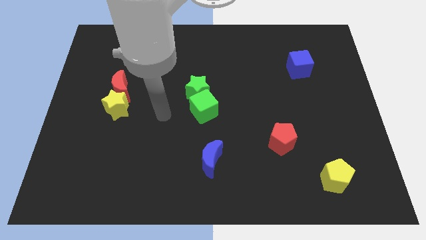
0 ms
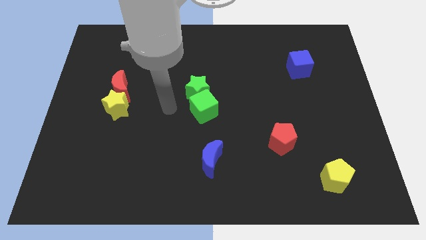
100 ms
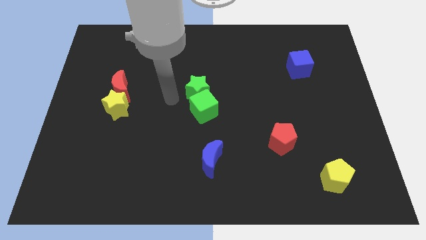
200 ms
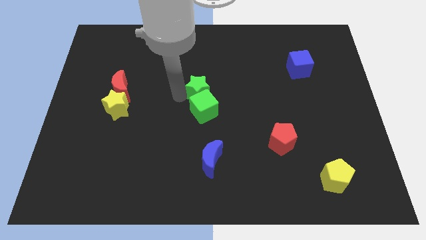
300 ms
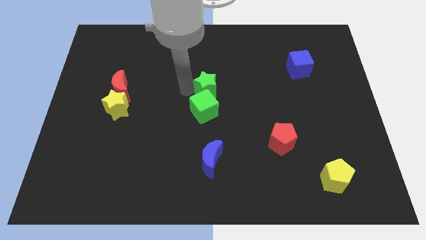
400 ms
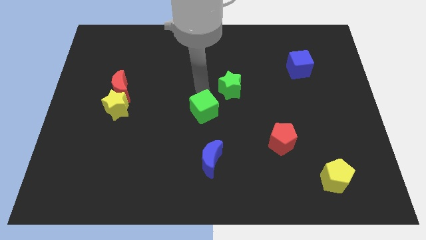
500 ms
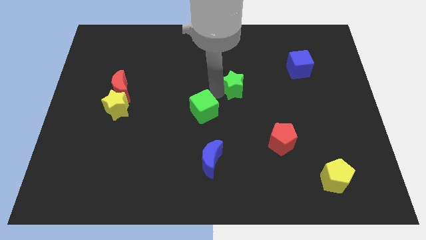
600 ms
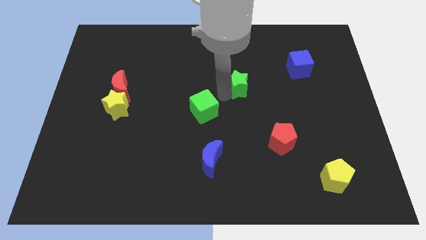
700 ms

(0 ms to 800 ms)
pull the green cube apart from the green star

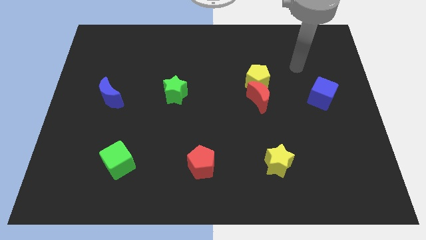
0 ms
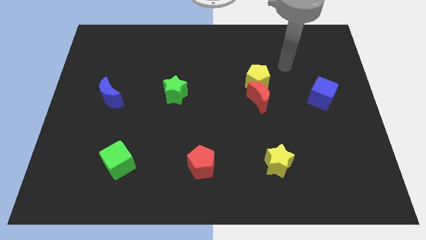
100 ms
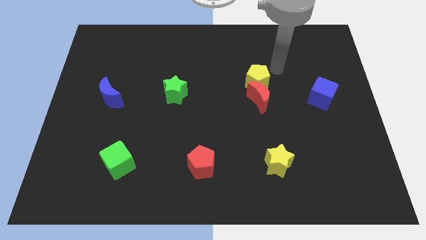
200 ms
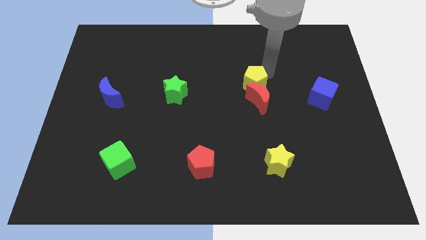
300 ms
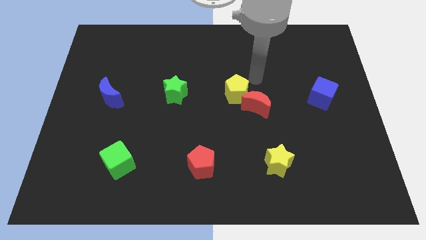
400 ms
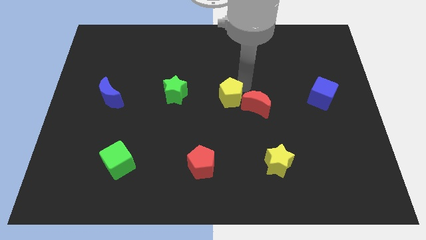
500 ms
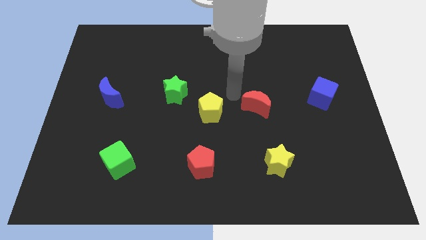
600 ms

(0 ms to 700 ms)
move the red moon away from the yellow pentagon

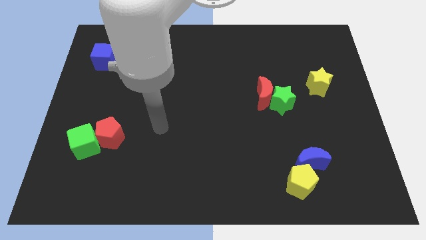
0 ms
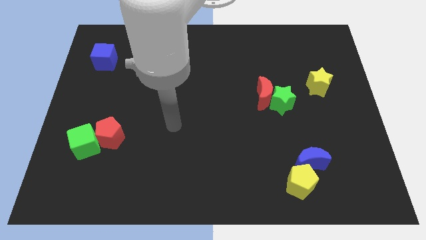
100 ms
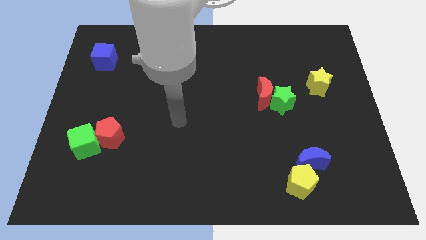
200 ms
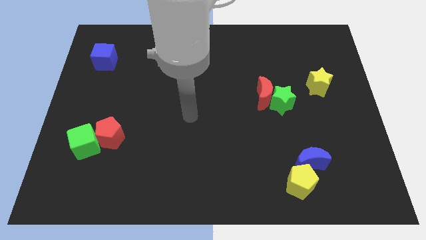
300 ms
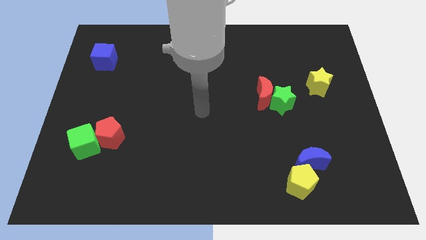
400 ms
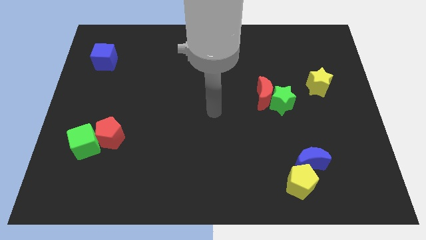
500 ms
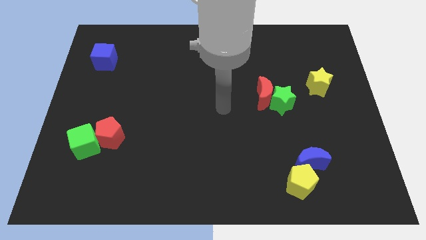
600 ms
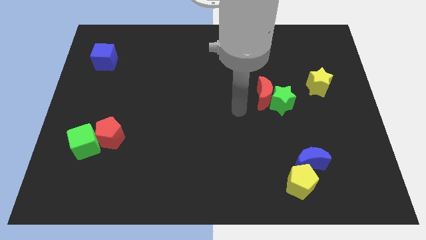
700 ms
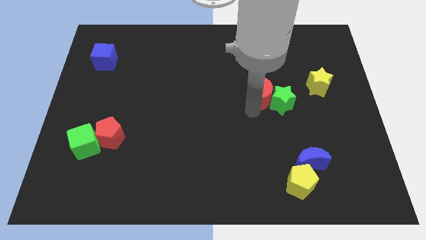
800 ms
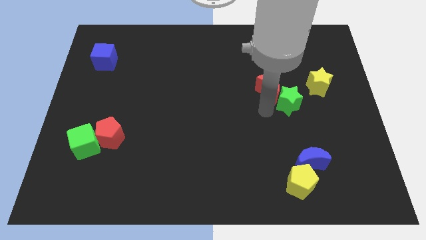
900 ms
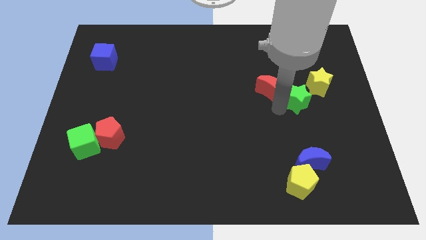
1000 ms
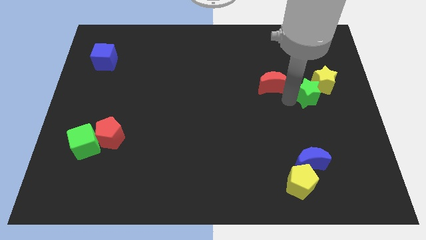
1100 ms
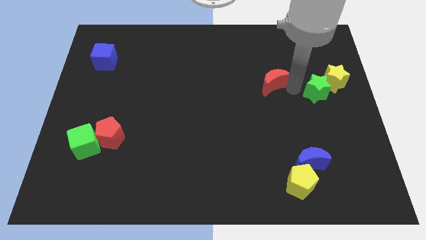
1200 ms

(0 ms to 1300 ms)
move the red moon away from the green star

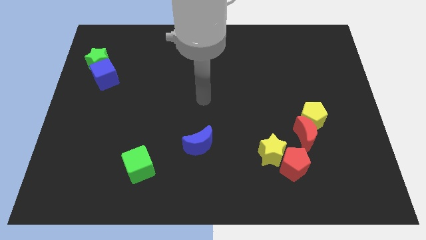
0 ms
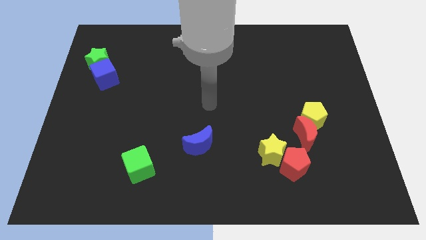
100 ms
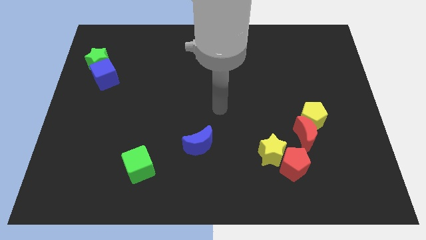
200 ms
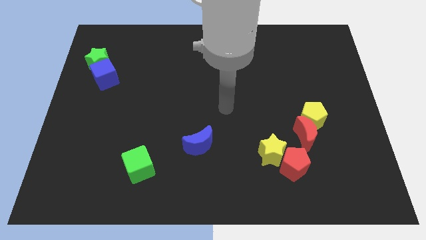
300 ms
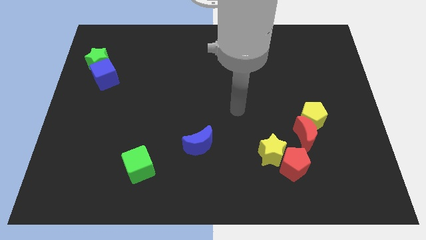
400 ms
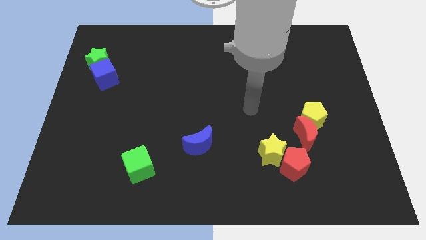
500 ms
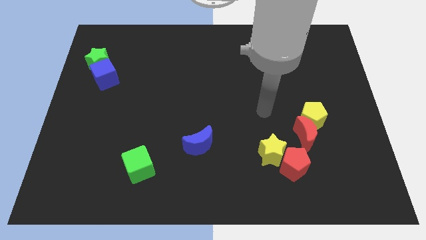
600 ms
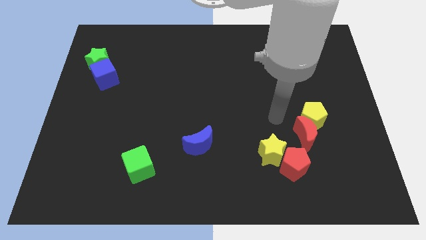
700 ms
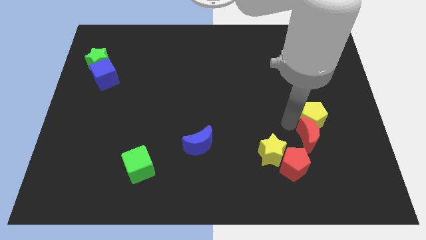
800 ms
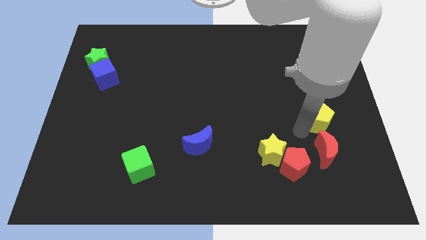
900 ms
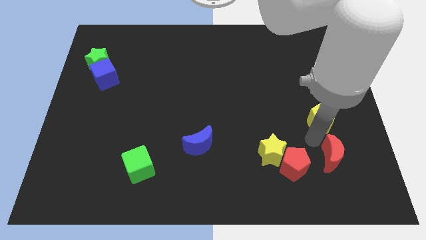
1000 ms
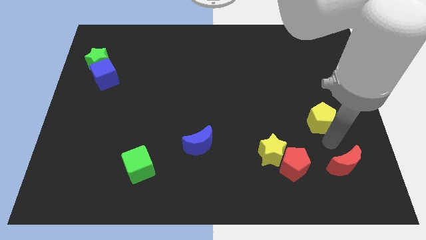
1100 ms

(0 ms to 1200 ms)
move the yellow pentagon away from the red moon

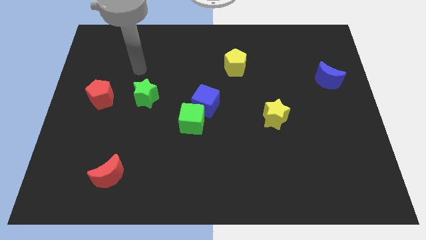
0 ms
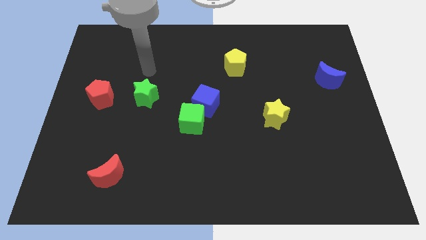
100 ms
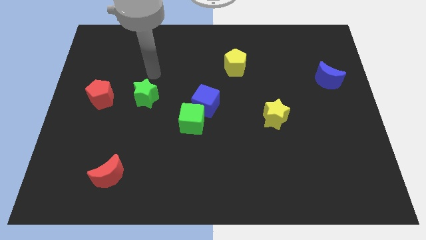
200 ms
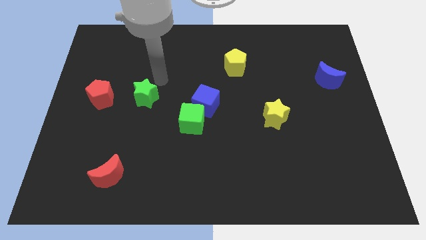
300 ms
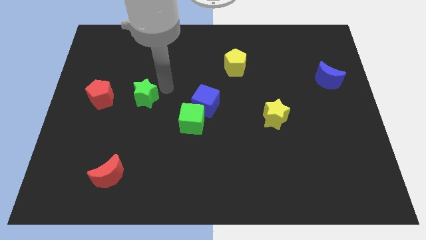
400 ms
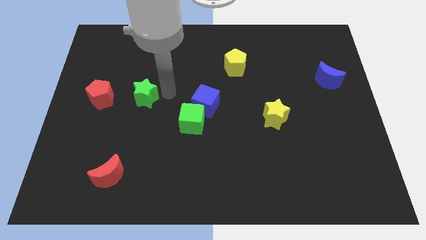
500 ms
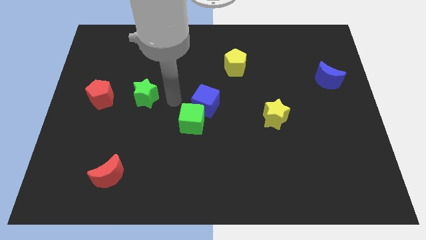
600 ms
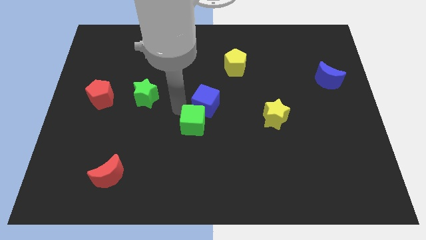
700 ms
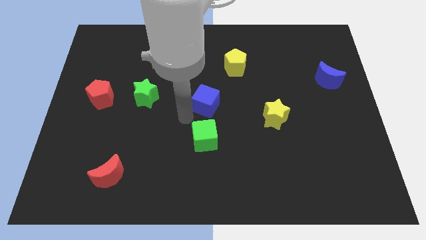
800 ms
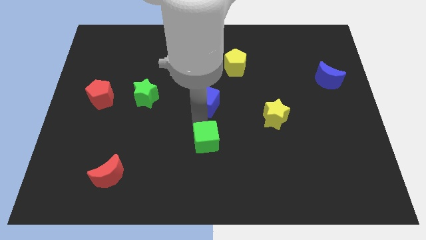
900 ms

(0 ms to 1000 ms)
move the blue cube away from the green cube

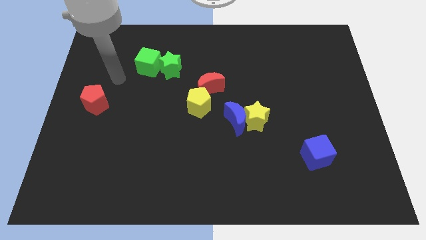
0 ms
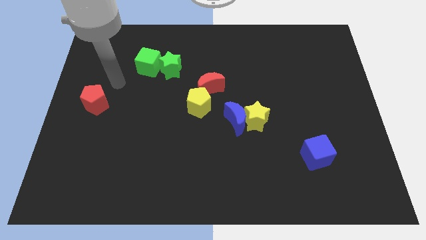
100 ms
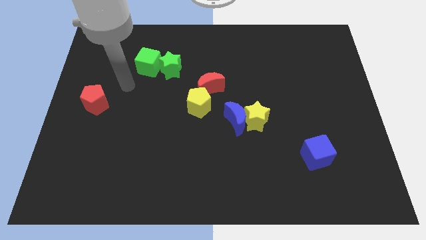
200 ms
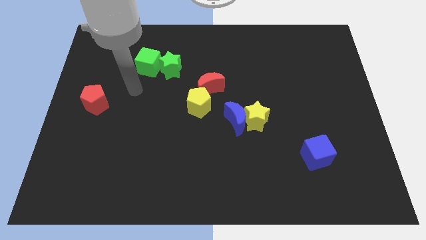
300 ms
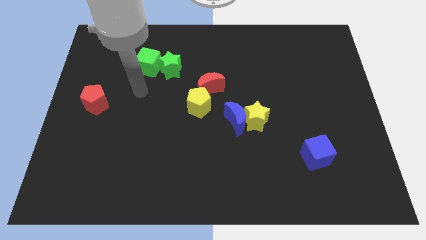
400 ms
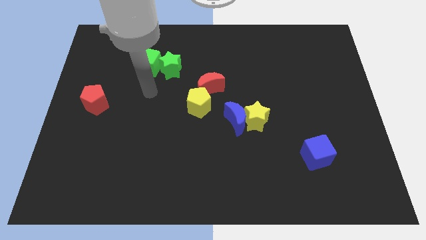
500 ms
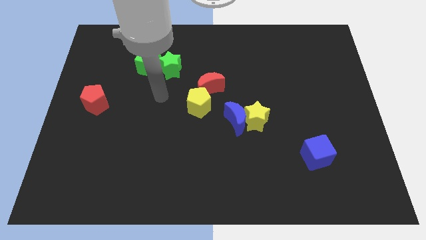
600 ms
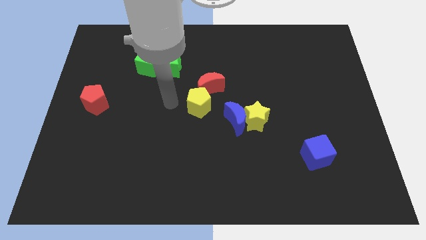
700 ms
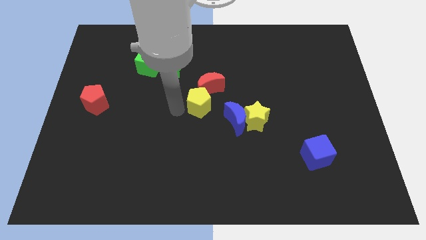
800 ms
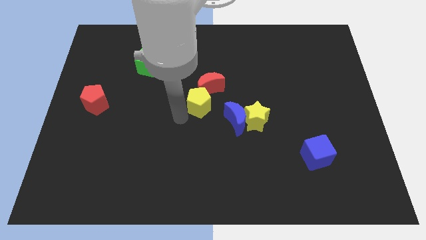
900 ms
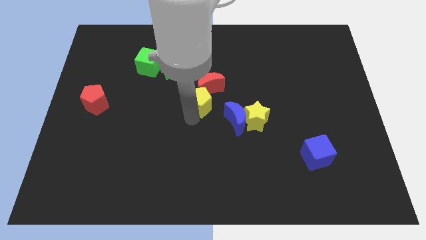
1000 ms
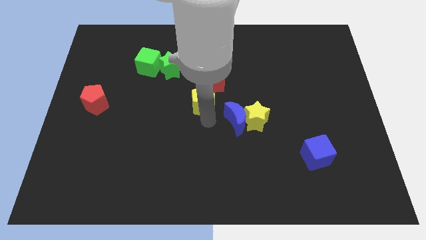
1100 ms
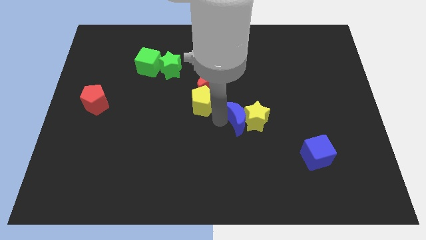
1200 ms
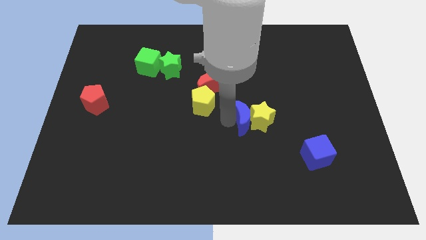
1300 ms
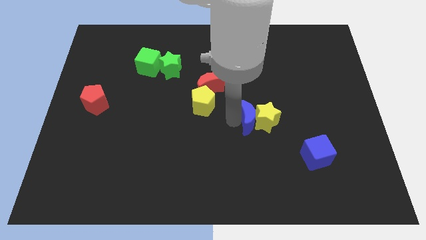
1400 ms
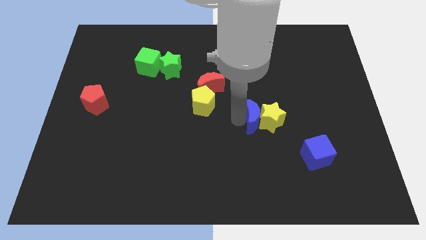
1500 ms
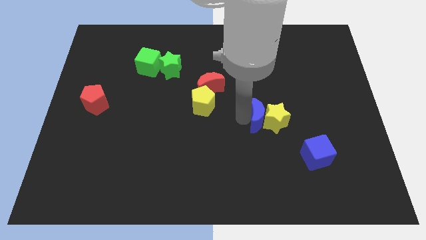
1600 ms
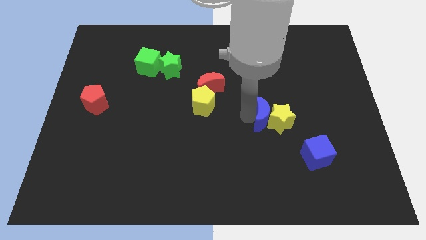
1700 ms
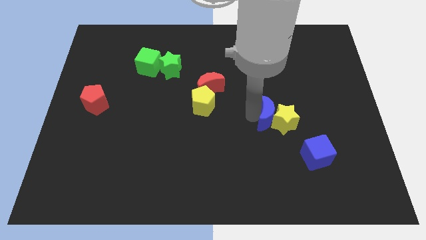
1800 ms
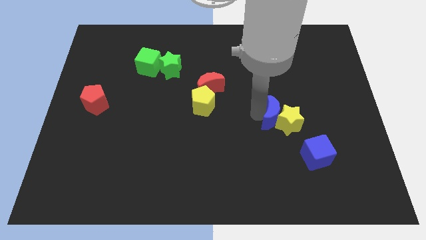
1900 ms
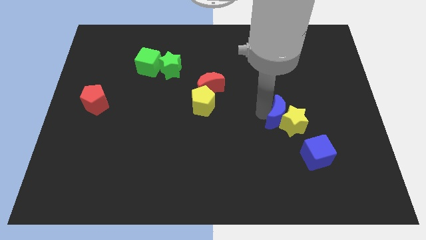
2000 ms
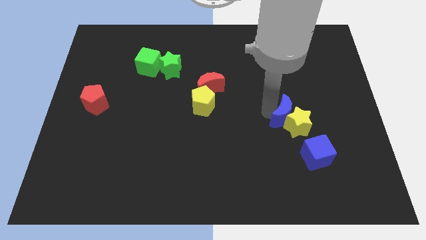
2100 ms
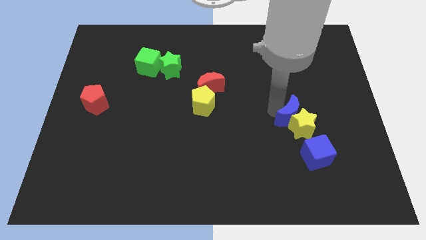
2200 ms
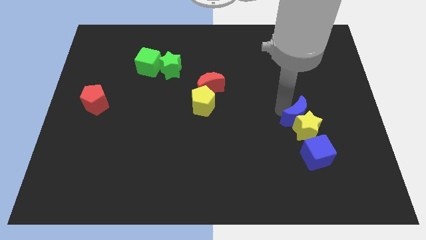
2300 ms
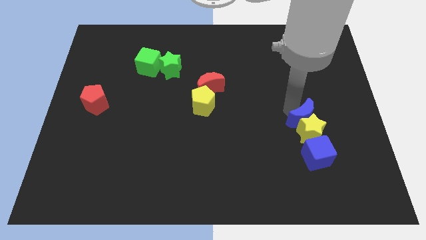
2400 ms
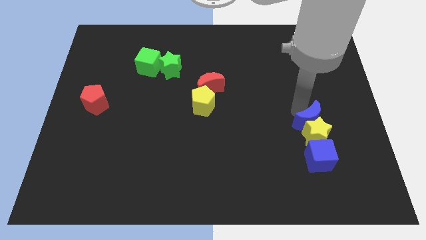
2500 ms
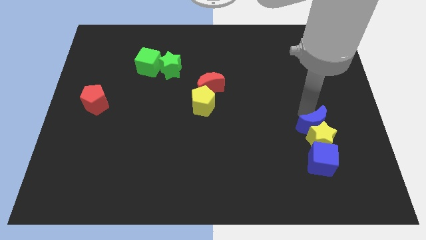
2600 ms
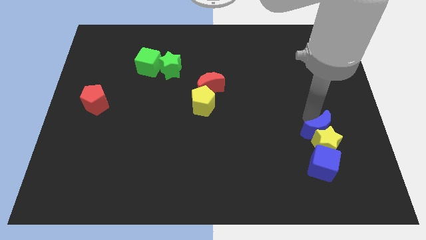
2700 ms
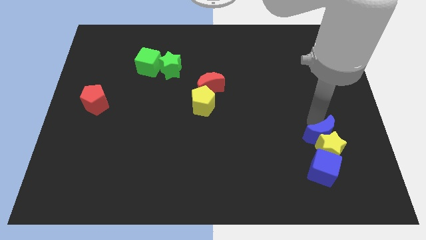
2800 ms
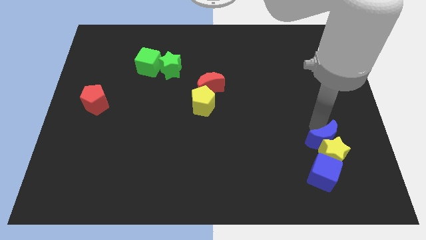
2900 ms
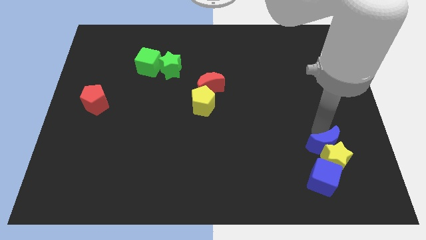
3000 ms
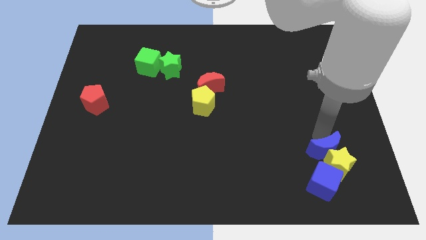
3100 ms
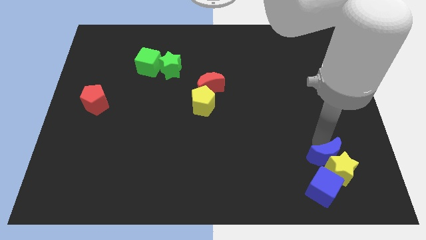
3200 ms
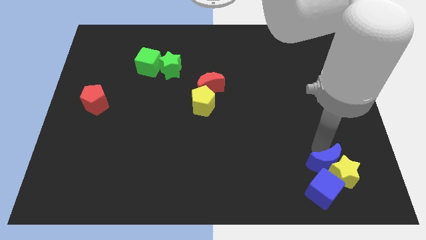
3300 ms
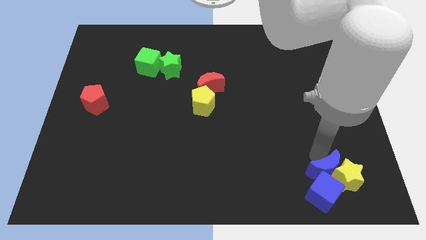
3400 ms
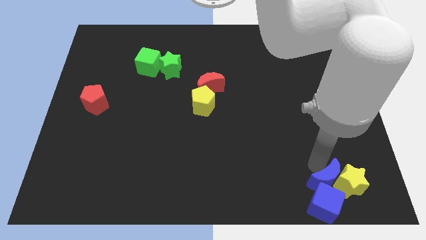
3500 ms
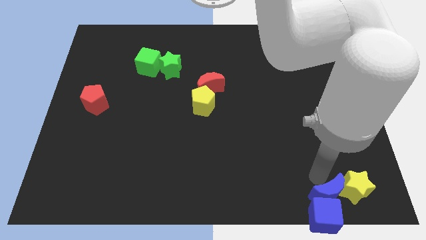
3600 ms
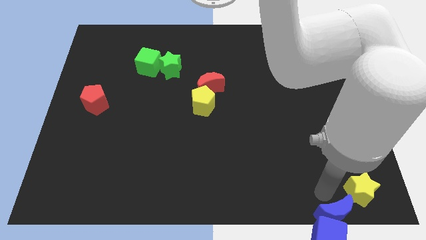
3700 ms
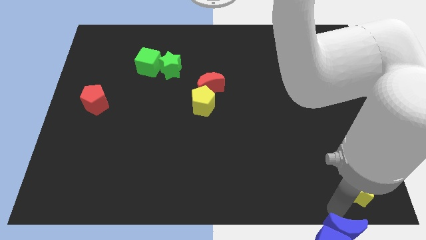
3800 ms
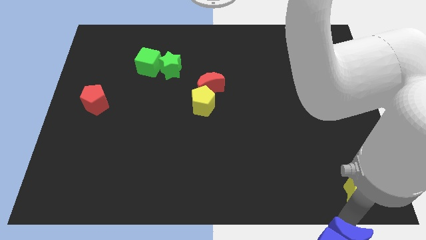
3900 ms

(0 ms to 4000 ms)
separate the yellow star from the blue moon

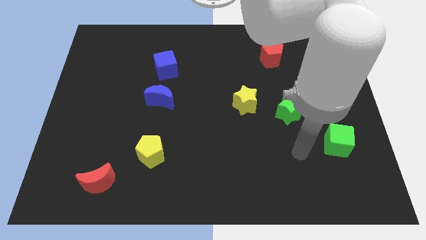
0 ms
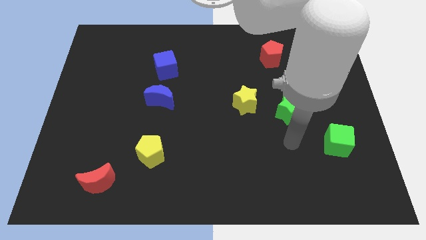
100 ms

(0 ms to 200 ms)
move the green star away from the yellow star

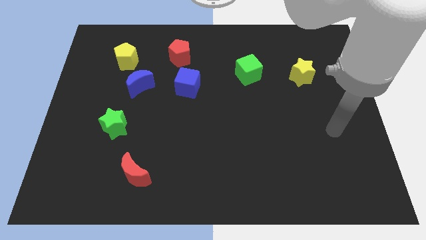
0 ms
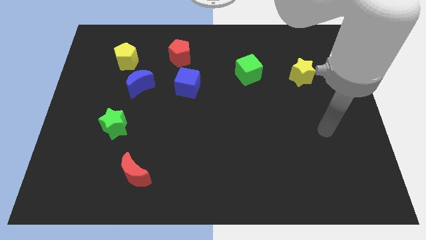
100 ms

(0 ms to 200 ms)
pull the blue moon apart from the yellow pentagon
